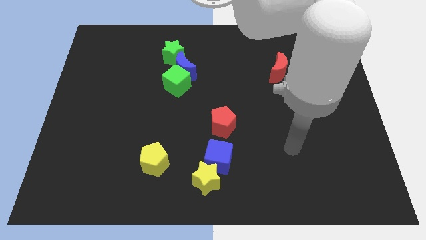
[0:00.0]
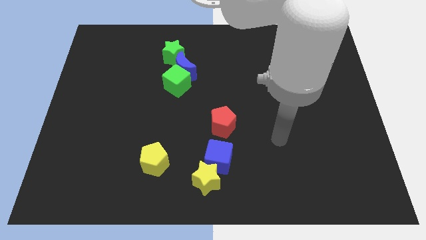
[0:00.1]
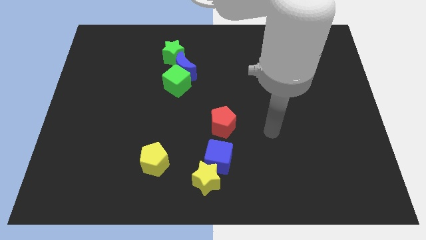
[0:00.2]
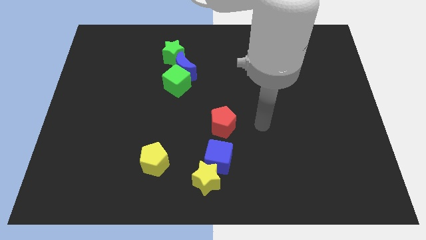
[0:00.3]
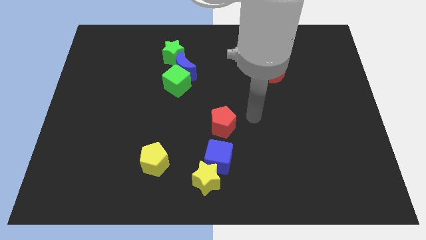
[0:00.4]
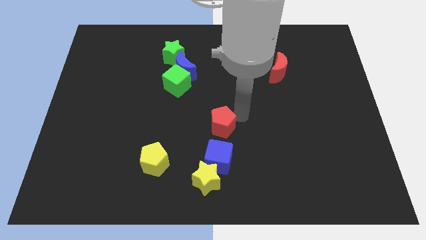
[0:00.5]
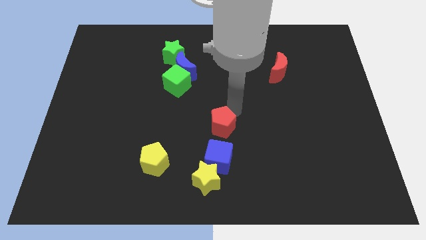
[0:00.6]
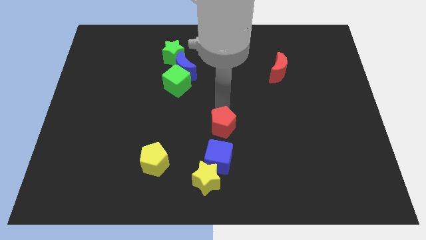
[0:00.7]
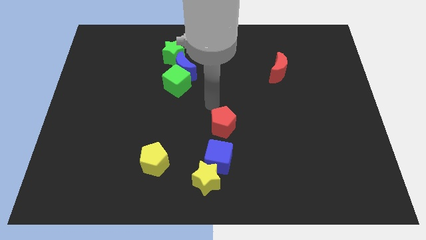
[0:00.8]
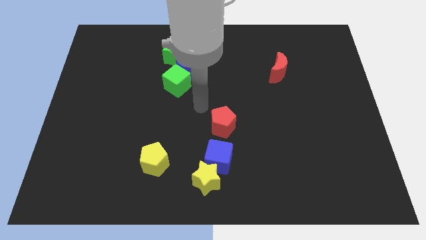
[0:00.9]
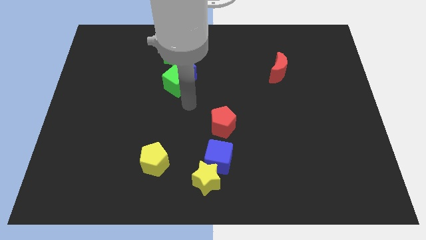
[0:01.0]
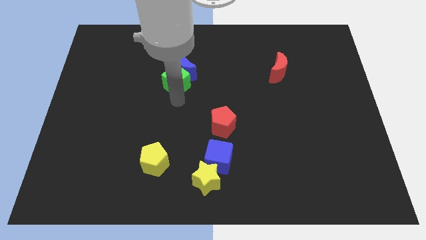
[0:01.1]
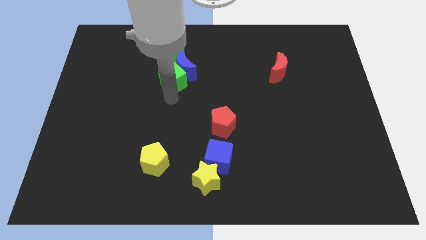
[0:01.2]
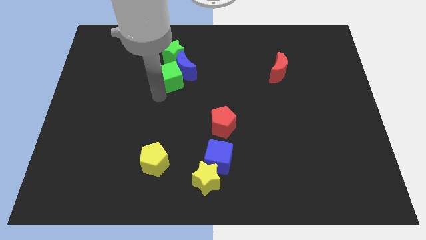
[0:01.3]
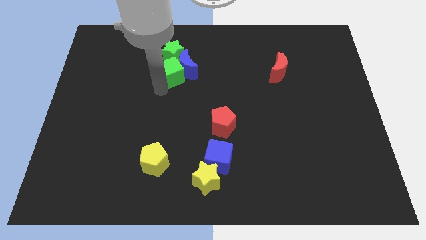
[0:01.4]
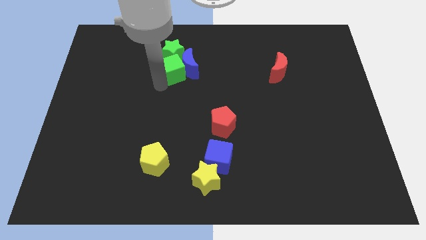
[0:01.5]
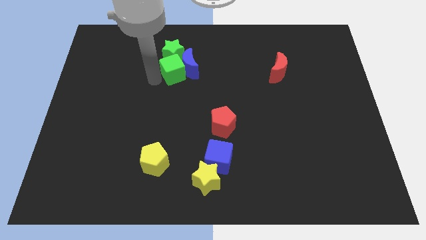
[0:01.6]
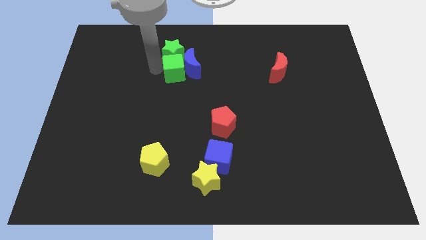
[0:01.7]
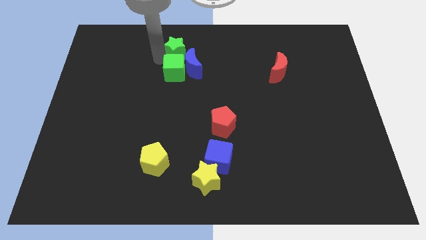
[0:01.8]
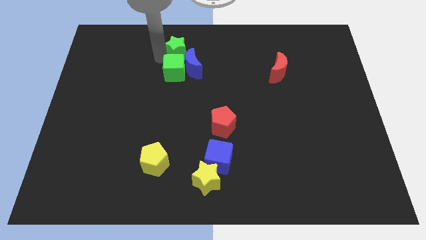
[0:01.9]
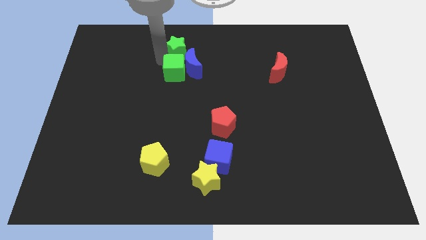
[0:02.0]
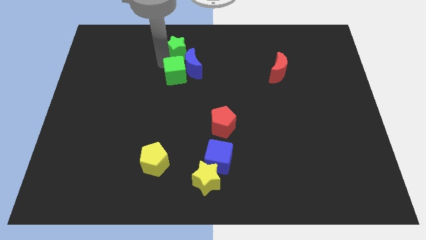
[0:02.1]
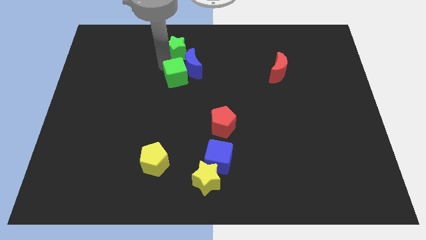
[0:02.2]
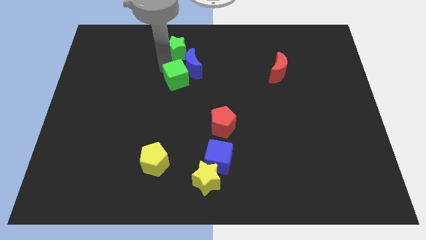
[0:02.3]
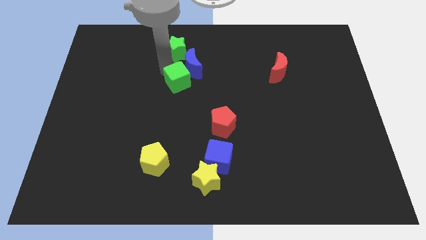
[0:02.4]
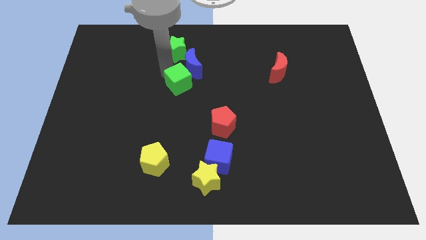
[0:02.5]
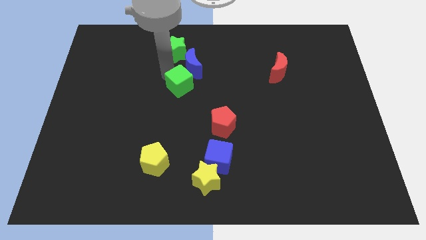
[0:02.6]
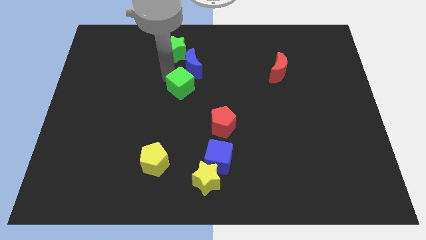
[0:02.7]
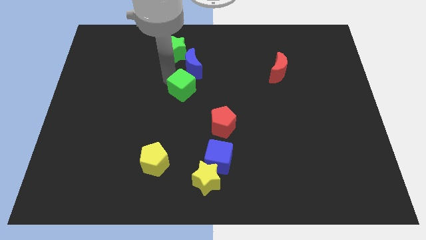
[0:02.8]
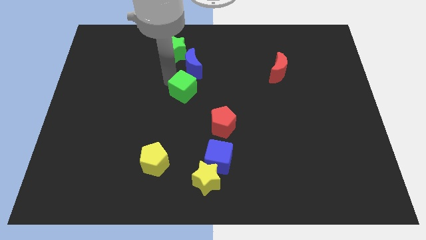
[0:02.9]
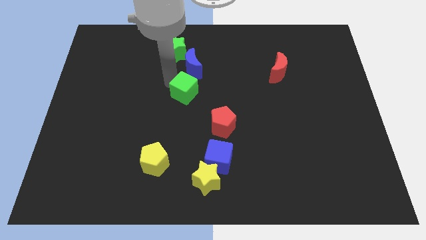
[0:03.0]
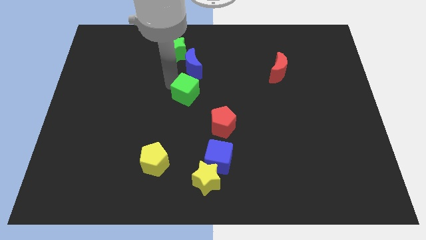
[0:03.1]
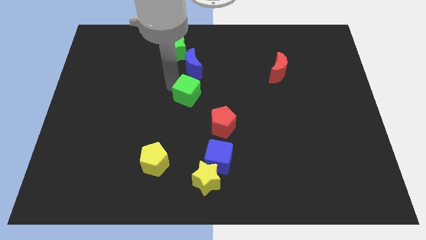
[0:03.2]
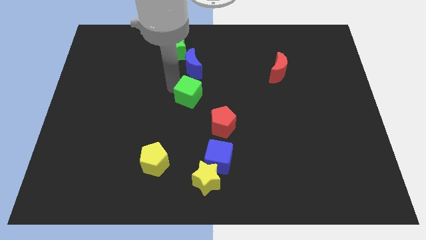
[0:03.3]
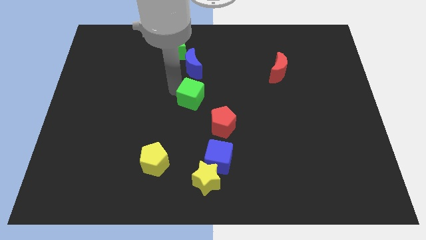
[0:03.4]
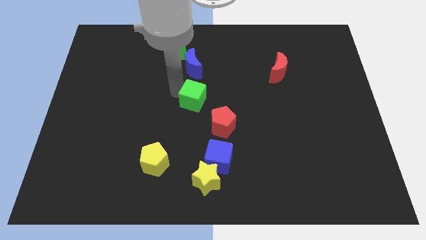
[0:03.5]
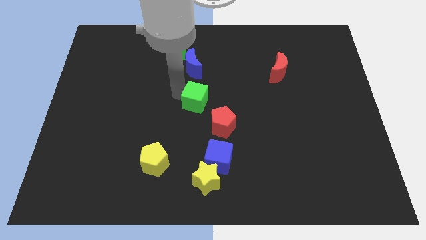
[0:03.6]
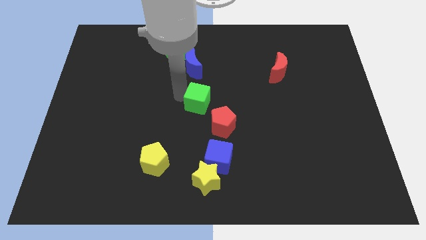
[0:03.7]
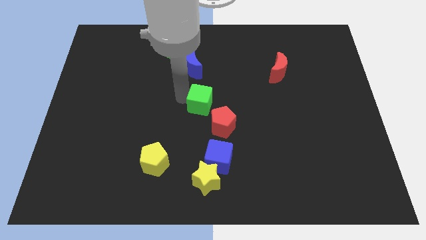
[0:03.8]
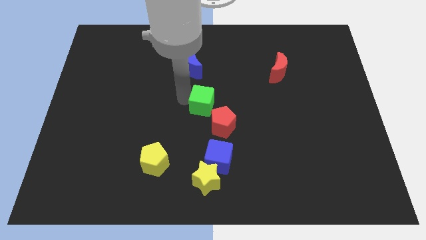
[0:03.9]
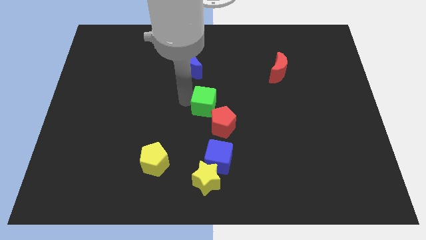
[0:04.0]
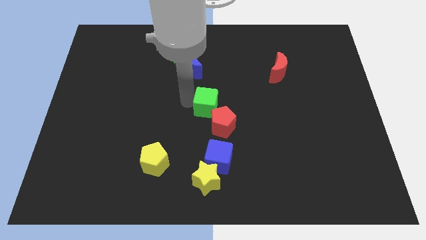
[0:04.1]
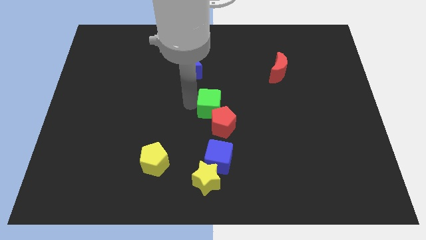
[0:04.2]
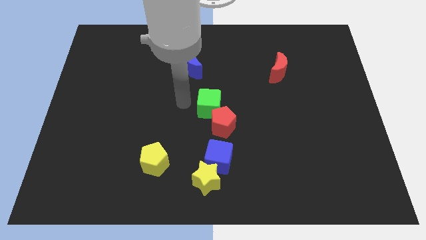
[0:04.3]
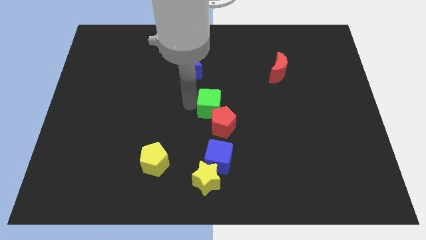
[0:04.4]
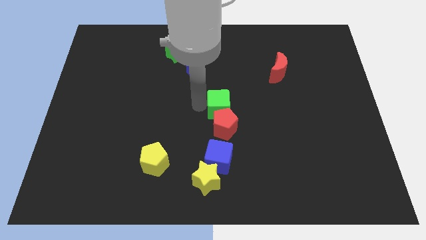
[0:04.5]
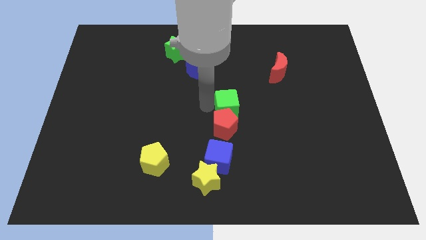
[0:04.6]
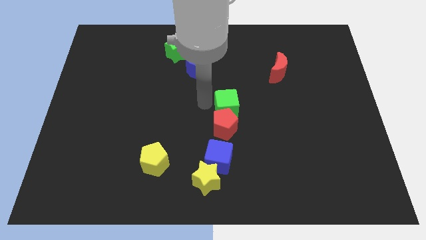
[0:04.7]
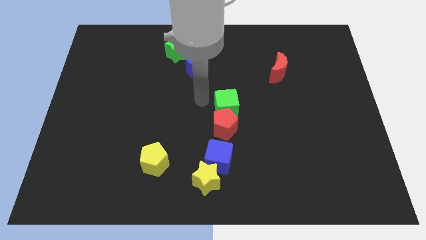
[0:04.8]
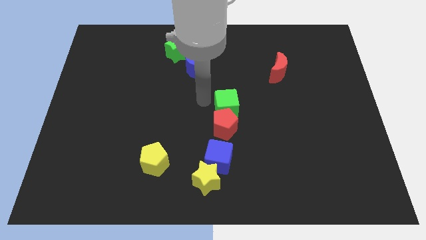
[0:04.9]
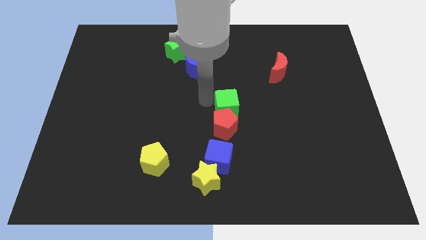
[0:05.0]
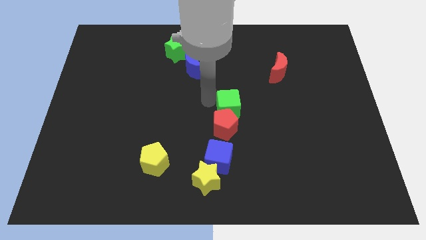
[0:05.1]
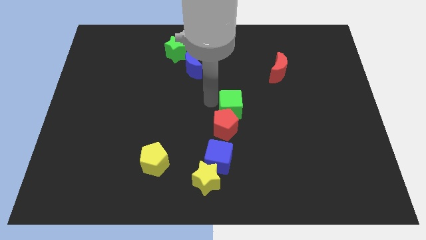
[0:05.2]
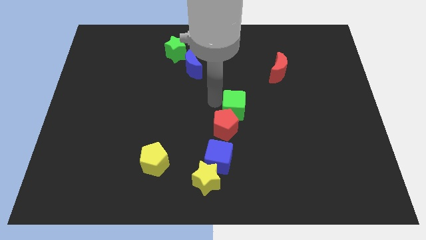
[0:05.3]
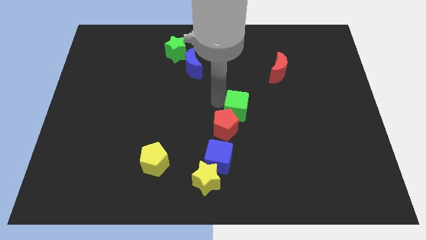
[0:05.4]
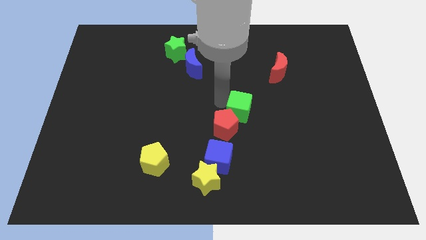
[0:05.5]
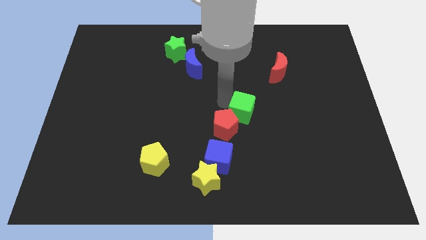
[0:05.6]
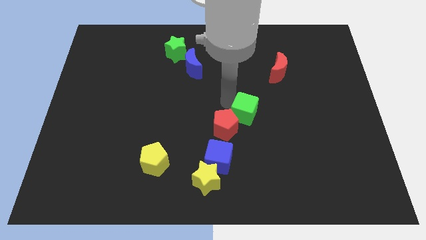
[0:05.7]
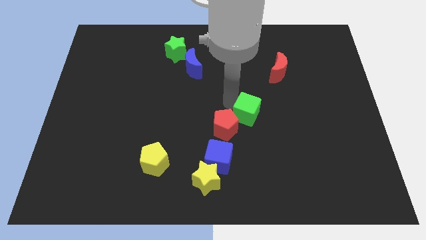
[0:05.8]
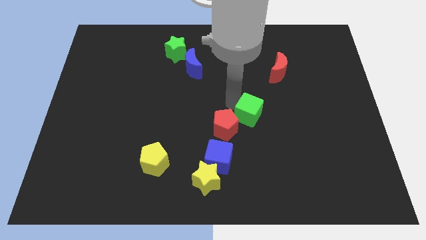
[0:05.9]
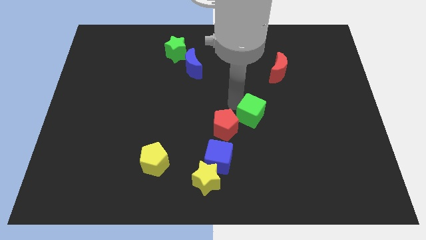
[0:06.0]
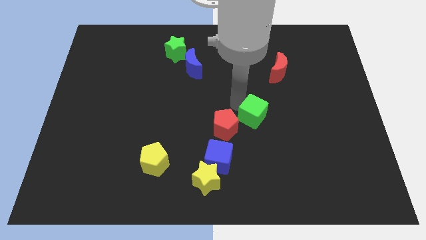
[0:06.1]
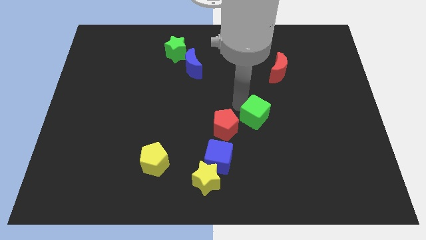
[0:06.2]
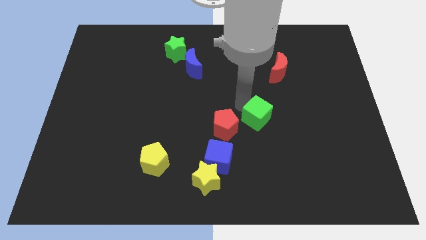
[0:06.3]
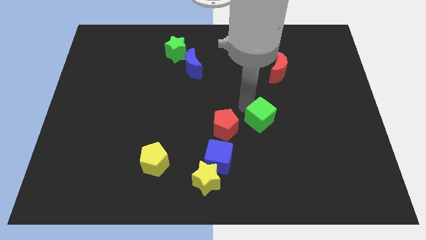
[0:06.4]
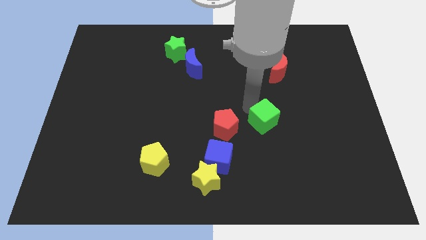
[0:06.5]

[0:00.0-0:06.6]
move the green cube down and to the right

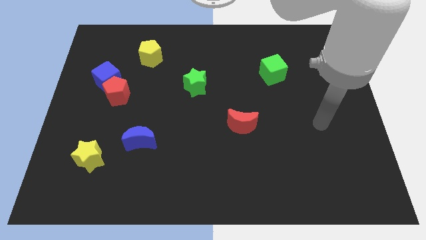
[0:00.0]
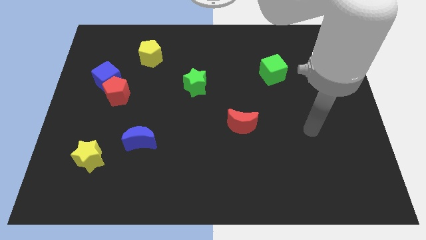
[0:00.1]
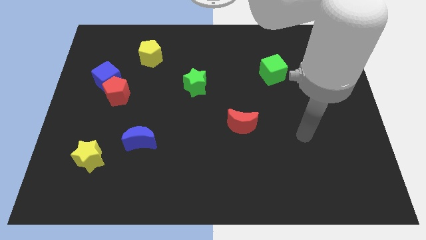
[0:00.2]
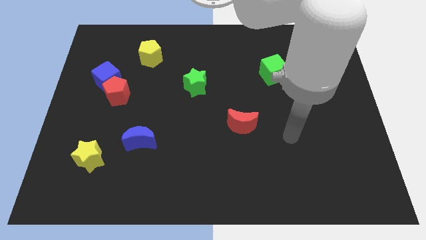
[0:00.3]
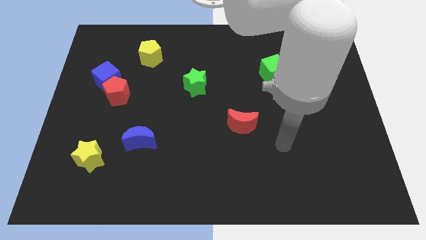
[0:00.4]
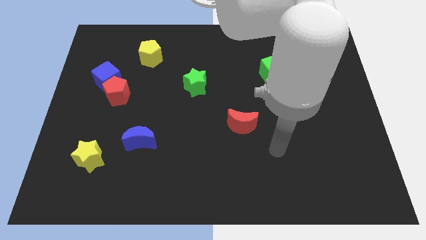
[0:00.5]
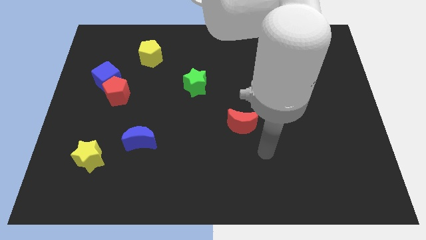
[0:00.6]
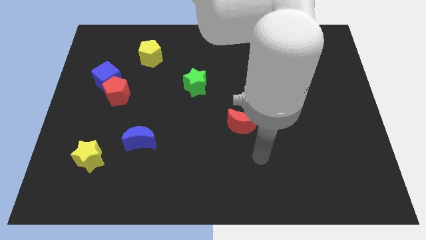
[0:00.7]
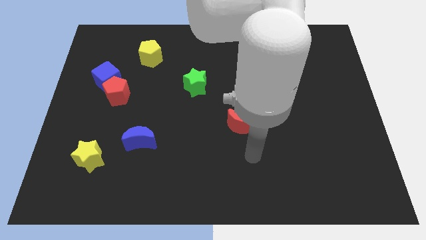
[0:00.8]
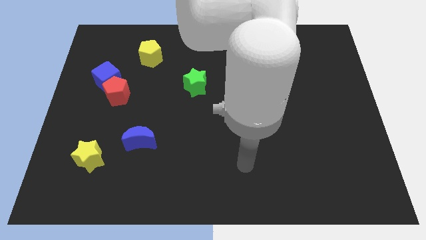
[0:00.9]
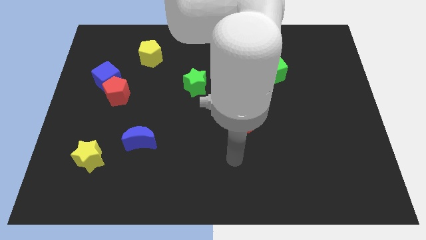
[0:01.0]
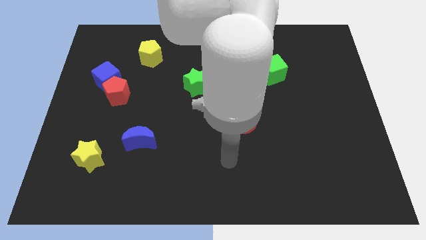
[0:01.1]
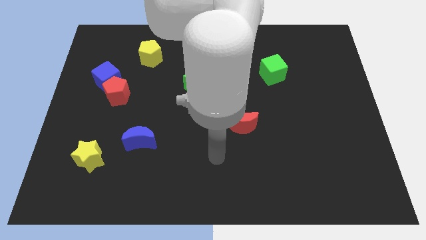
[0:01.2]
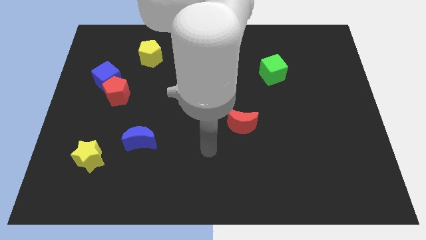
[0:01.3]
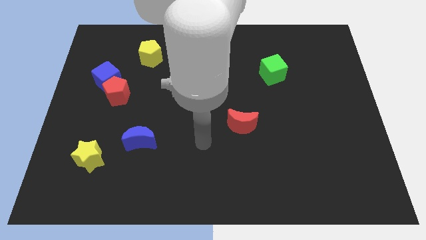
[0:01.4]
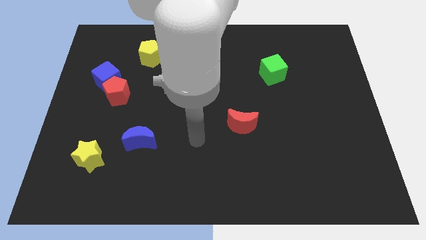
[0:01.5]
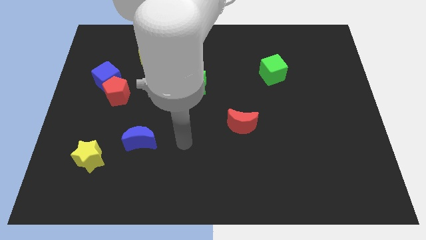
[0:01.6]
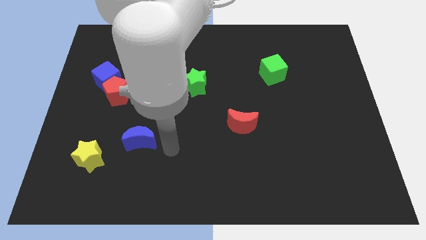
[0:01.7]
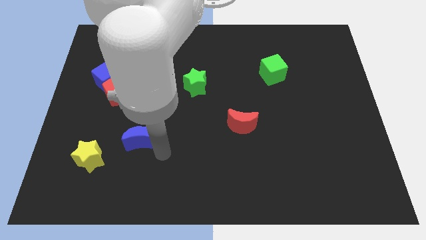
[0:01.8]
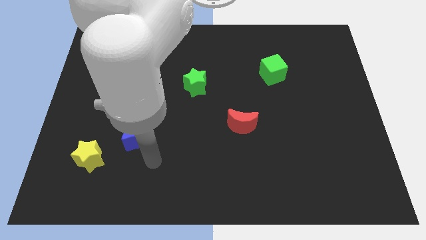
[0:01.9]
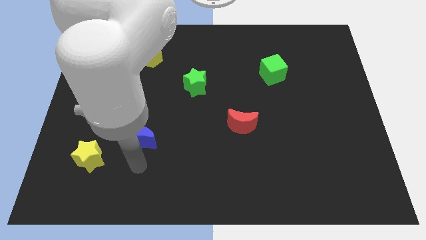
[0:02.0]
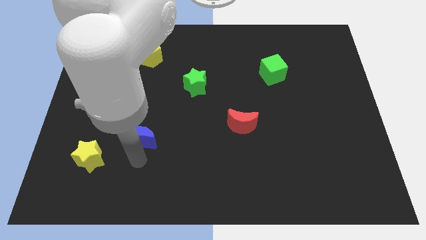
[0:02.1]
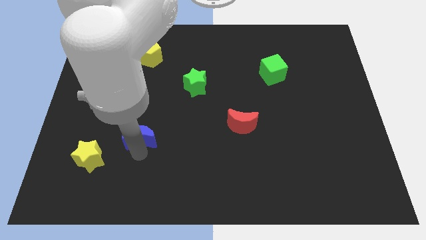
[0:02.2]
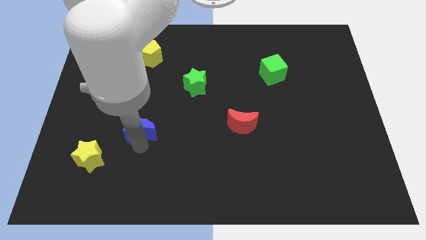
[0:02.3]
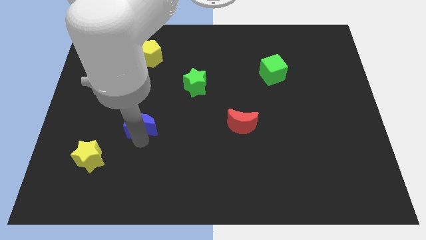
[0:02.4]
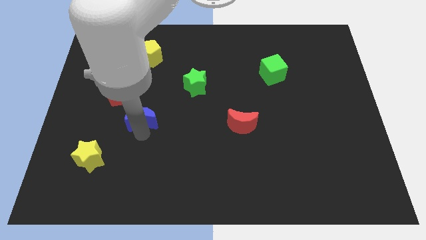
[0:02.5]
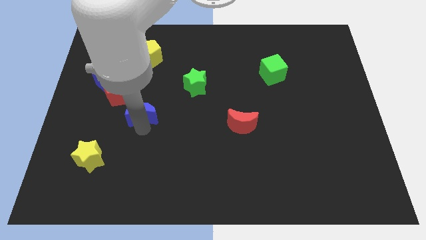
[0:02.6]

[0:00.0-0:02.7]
slightly slide the blue moon up
